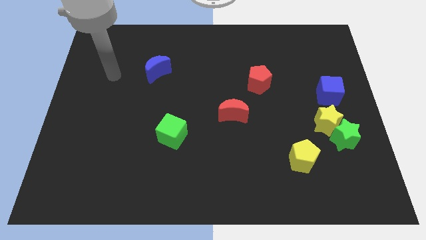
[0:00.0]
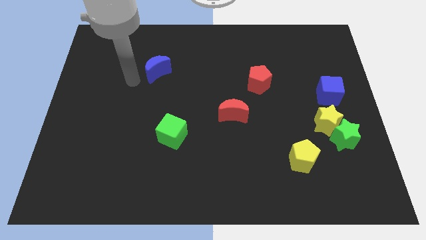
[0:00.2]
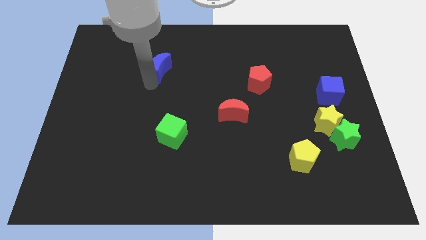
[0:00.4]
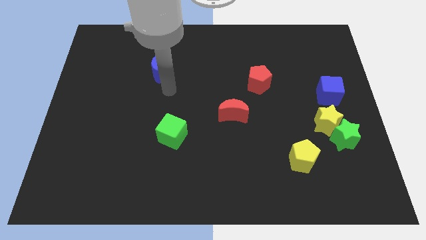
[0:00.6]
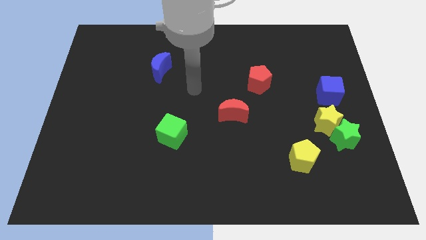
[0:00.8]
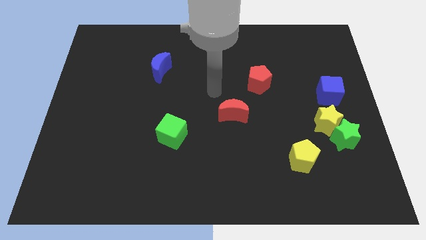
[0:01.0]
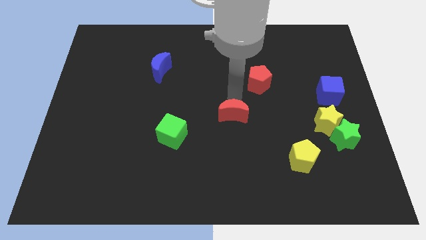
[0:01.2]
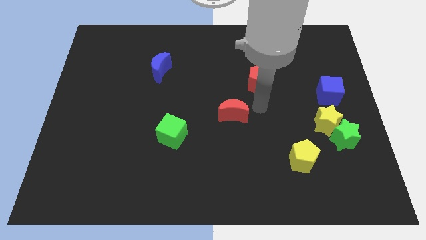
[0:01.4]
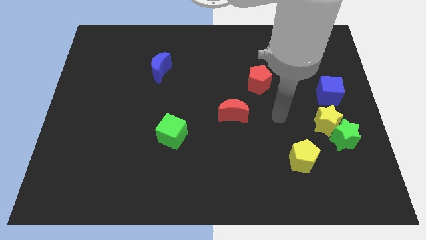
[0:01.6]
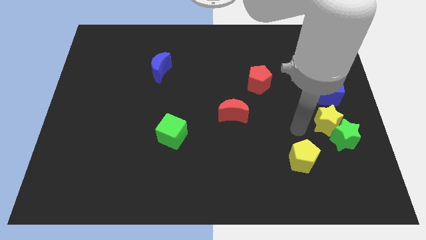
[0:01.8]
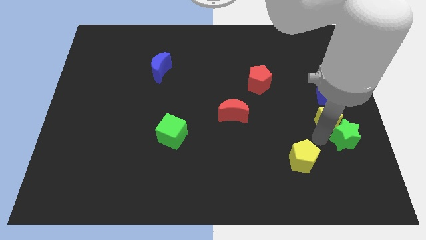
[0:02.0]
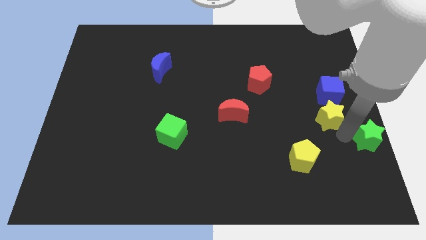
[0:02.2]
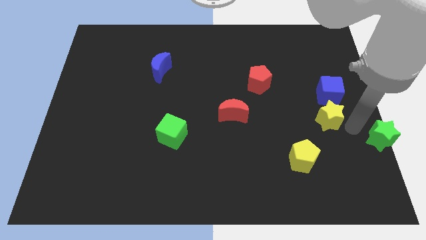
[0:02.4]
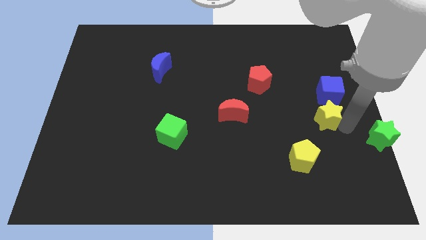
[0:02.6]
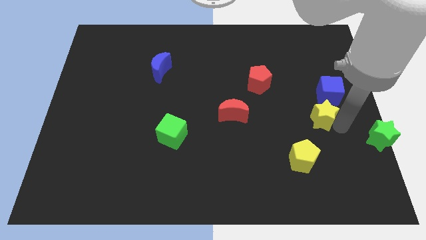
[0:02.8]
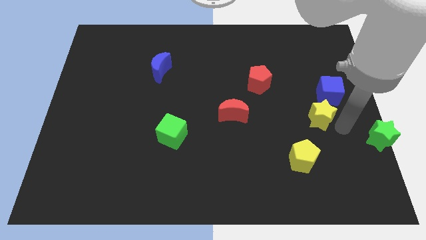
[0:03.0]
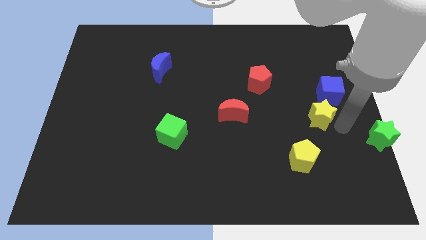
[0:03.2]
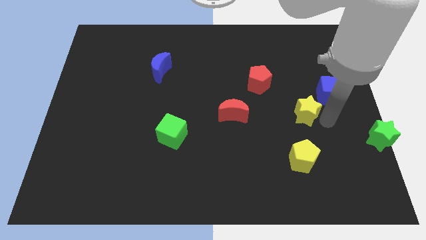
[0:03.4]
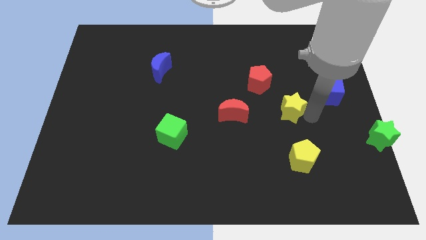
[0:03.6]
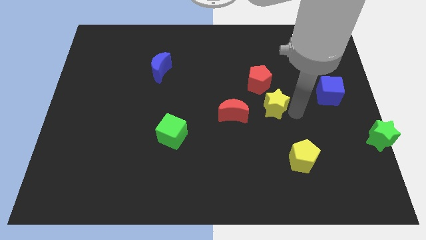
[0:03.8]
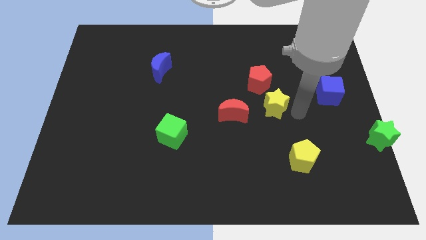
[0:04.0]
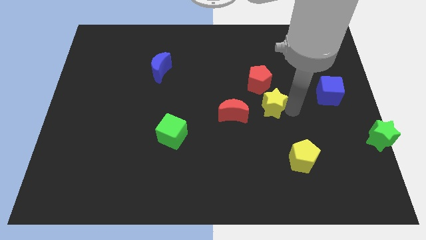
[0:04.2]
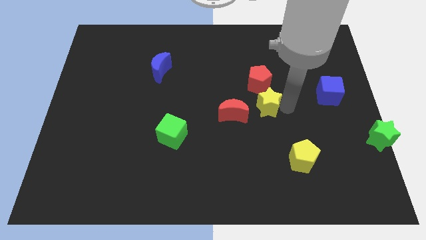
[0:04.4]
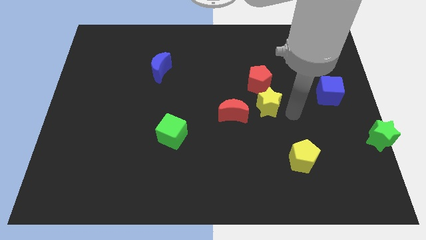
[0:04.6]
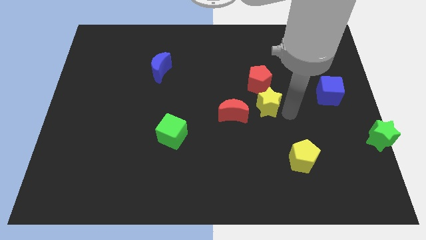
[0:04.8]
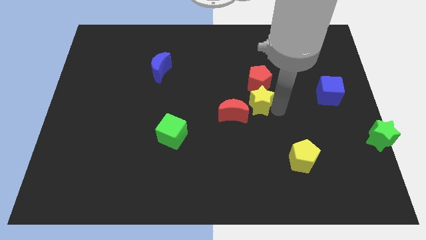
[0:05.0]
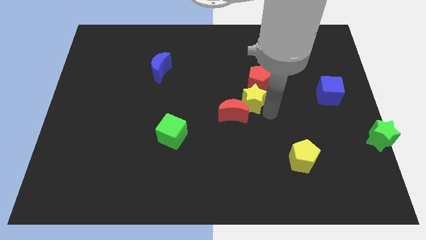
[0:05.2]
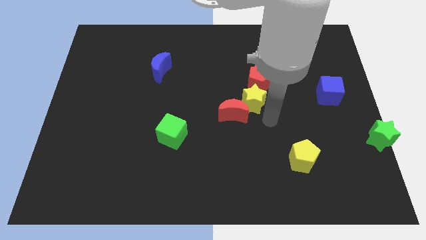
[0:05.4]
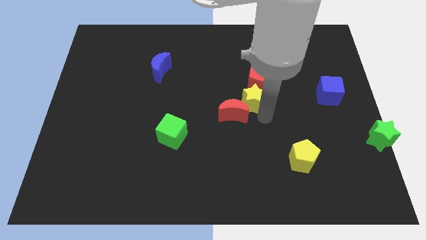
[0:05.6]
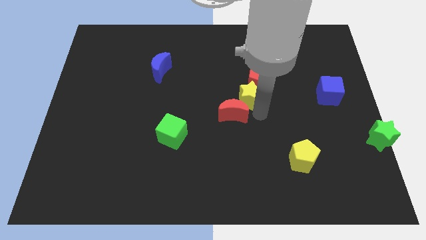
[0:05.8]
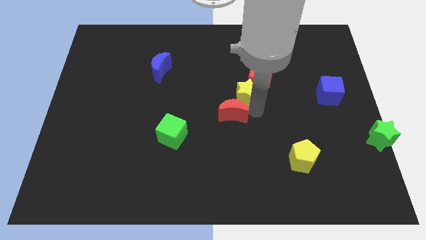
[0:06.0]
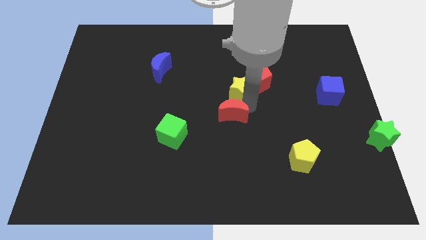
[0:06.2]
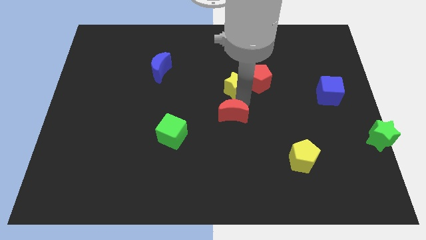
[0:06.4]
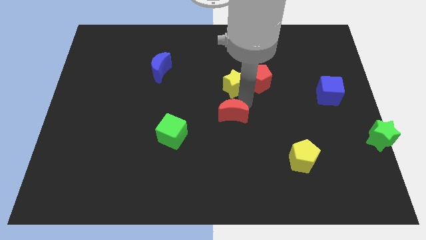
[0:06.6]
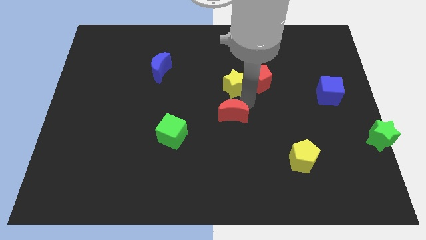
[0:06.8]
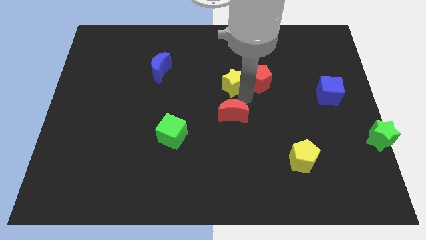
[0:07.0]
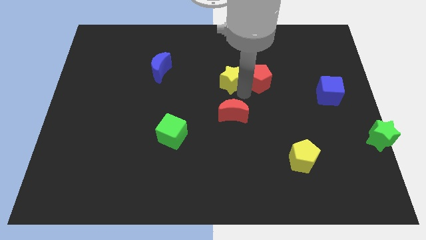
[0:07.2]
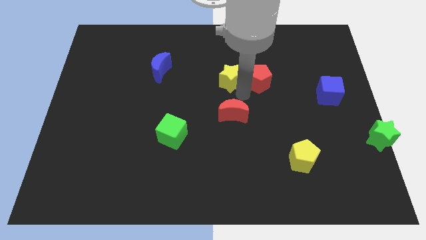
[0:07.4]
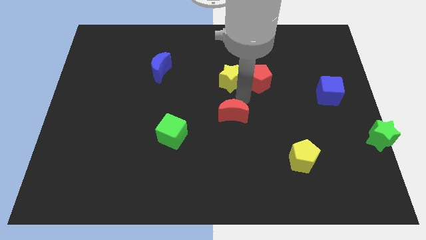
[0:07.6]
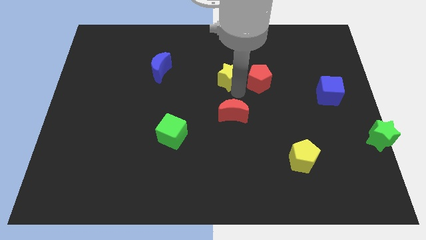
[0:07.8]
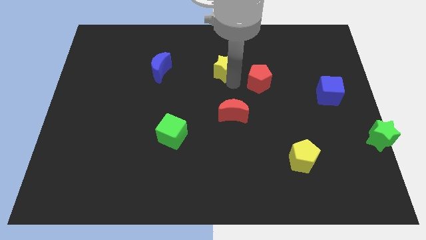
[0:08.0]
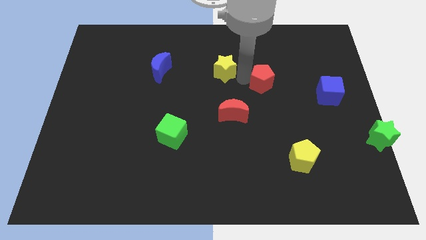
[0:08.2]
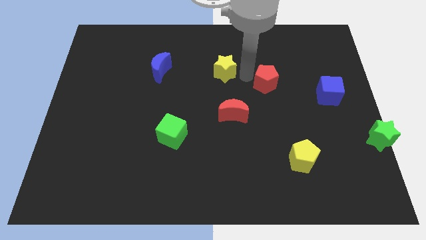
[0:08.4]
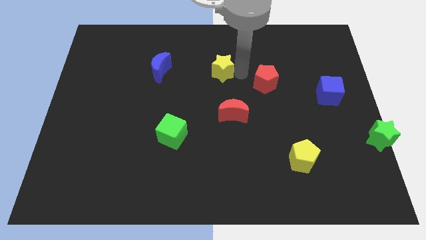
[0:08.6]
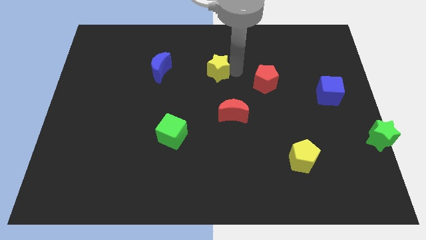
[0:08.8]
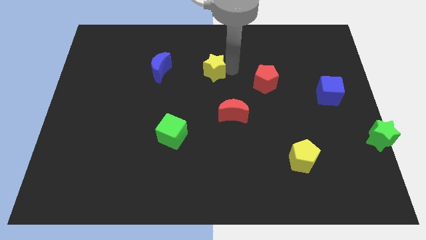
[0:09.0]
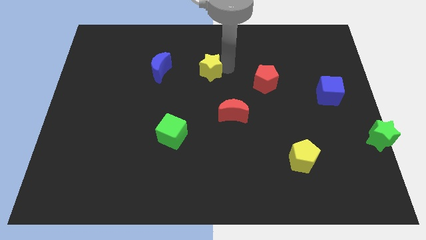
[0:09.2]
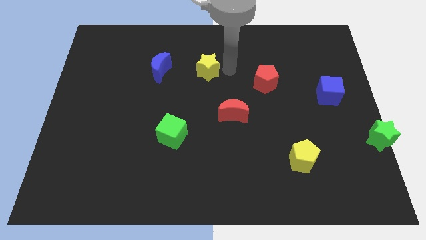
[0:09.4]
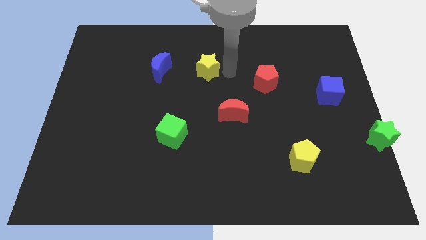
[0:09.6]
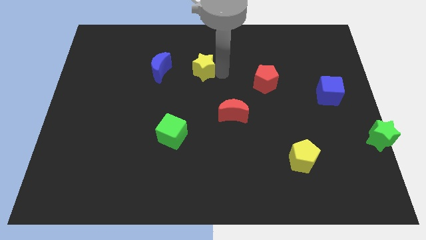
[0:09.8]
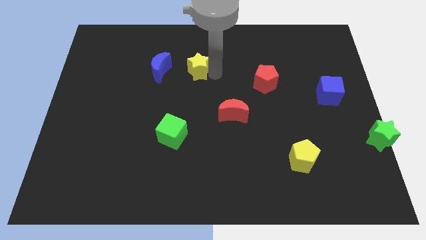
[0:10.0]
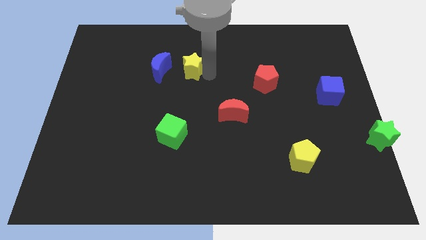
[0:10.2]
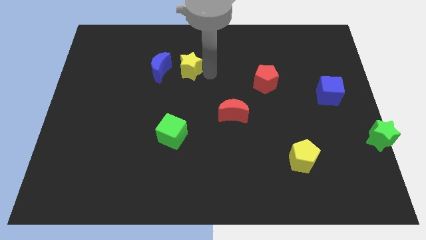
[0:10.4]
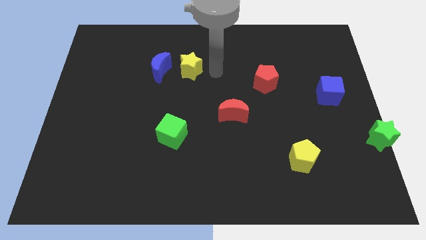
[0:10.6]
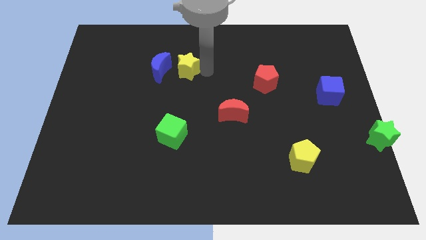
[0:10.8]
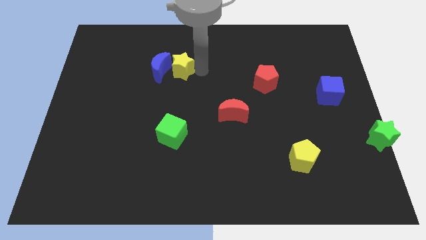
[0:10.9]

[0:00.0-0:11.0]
move the yellow star next to the blue moon

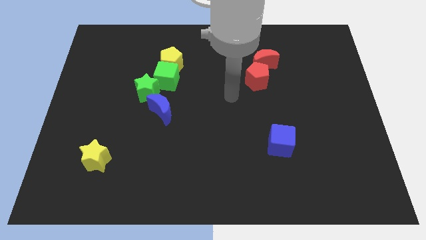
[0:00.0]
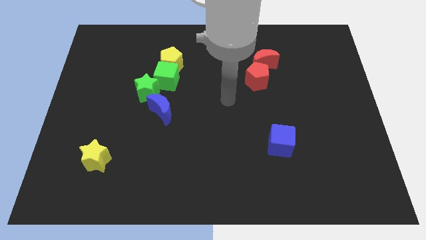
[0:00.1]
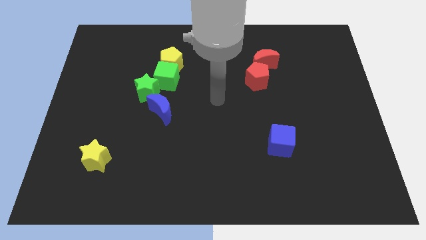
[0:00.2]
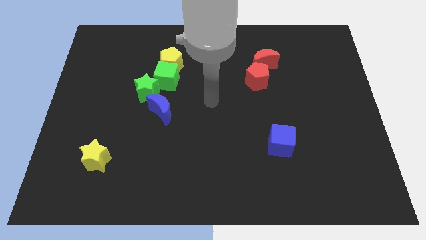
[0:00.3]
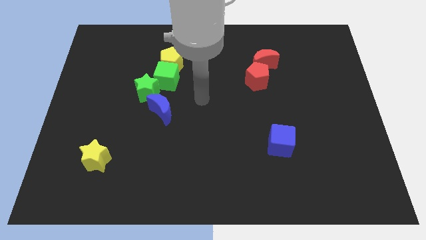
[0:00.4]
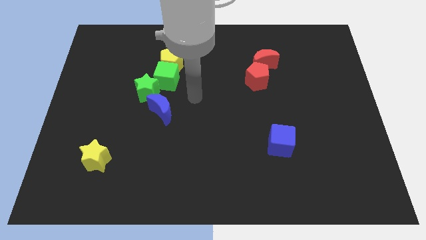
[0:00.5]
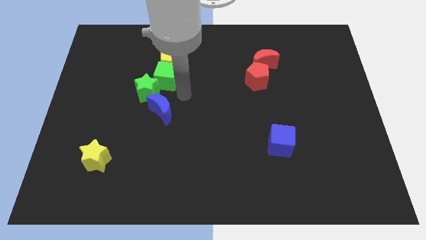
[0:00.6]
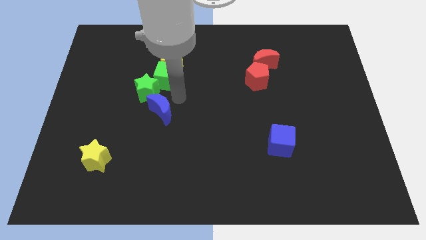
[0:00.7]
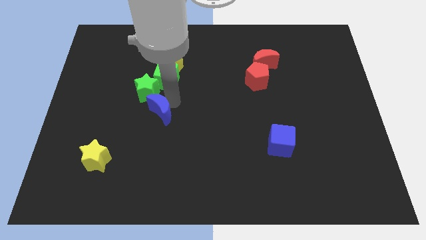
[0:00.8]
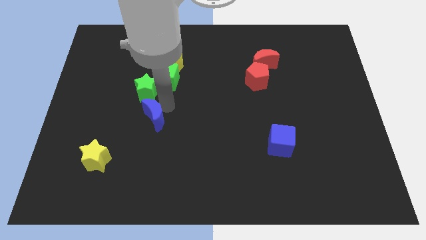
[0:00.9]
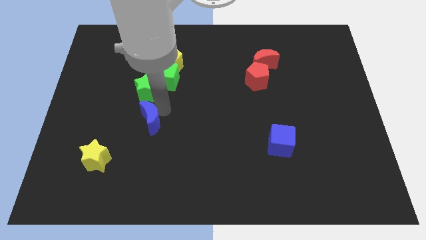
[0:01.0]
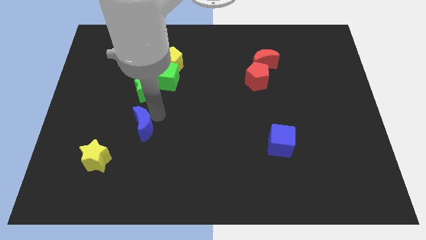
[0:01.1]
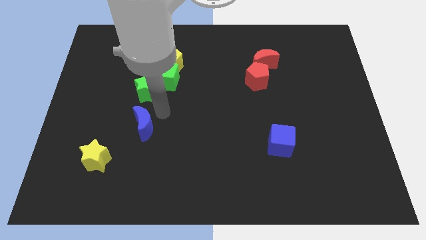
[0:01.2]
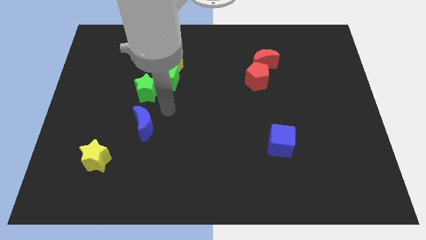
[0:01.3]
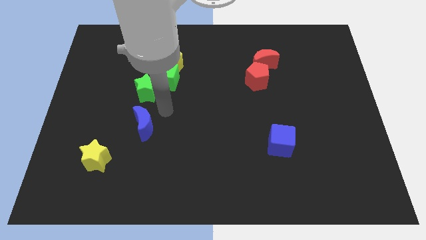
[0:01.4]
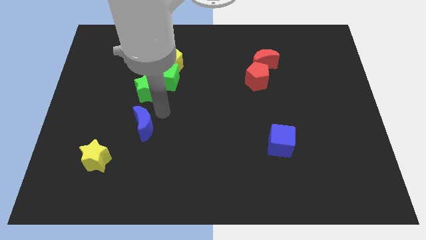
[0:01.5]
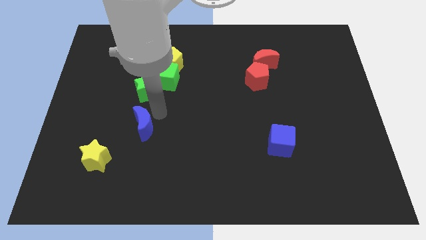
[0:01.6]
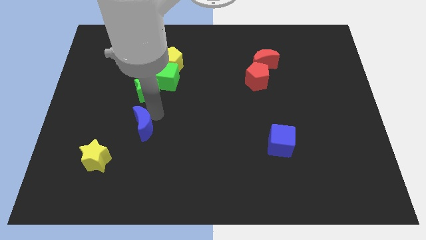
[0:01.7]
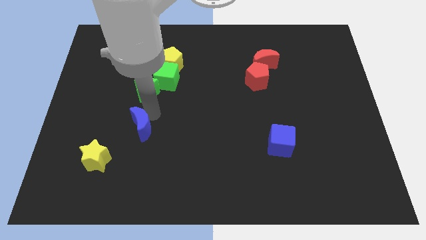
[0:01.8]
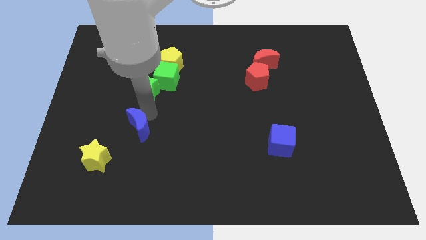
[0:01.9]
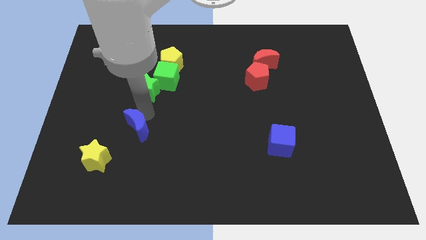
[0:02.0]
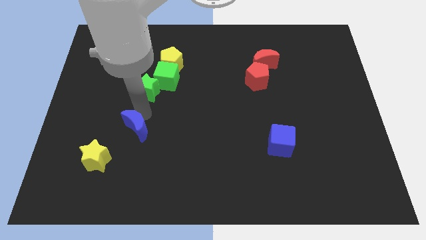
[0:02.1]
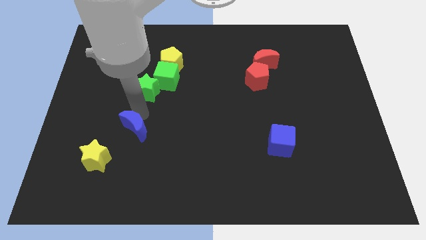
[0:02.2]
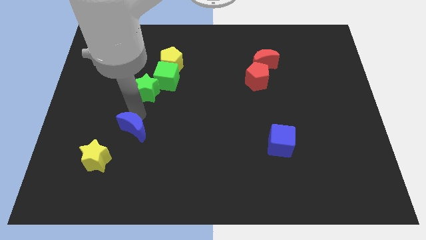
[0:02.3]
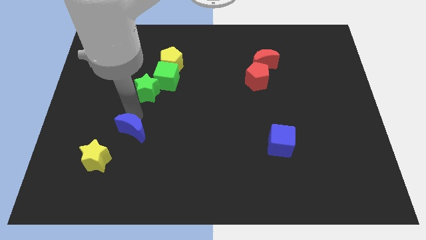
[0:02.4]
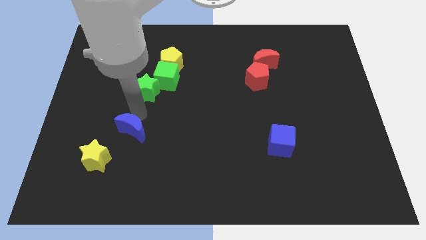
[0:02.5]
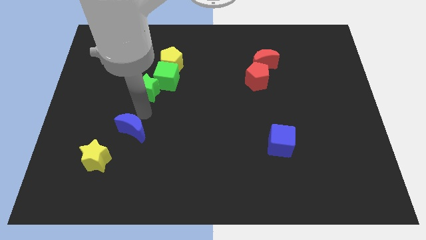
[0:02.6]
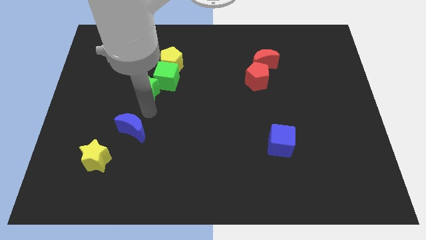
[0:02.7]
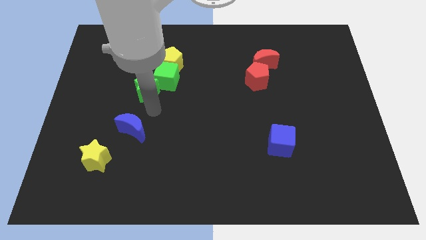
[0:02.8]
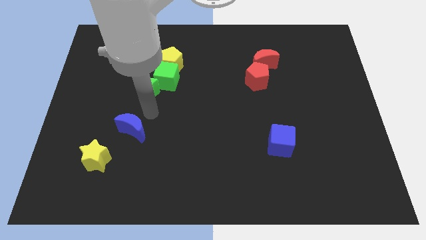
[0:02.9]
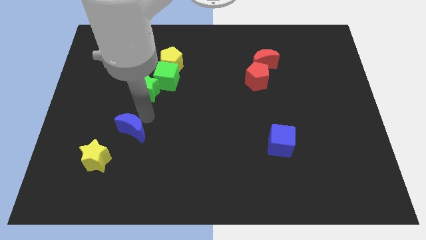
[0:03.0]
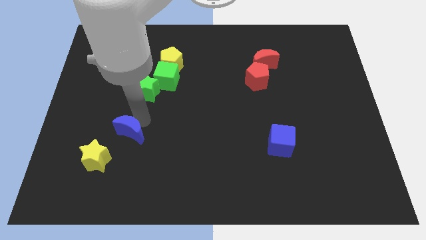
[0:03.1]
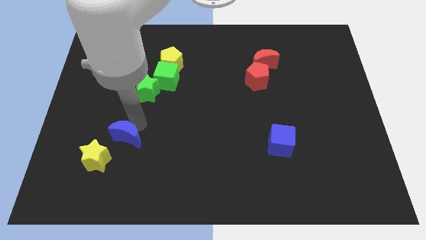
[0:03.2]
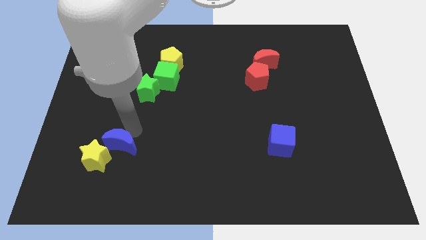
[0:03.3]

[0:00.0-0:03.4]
push the blue moon close to the yellow star
